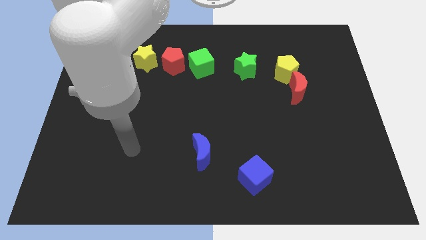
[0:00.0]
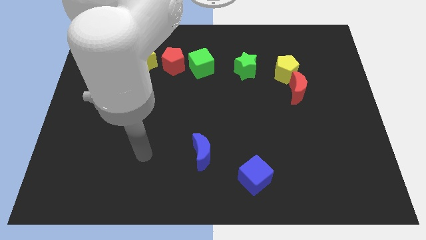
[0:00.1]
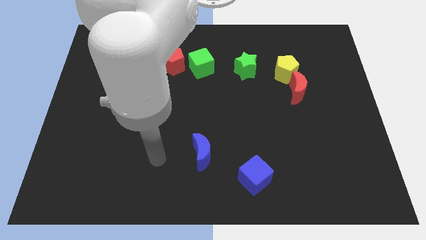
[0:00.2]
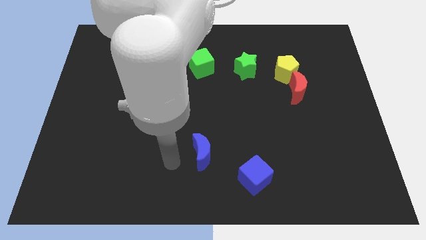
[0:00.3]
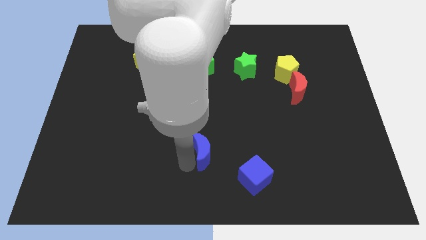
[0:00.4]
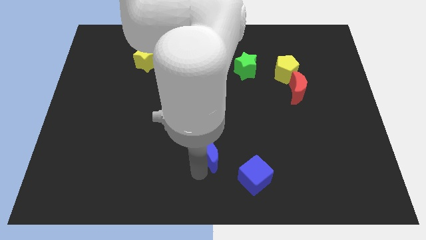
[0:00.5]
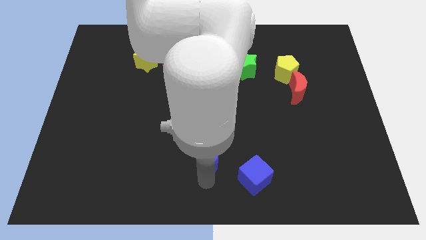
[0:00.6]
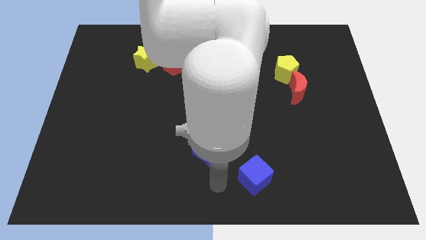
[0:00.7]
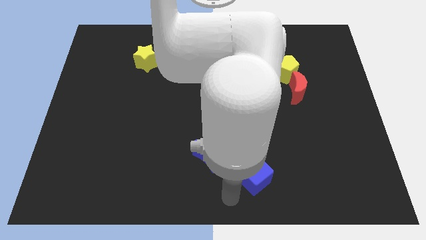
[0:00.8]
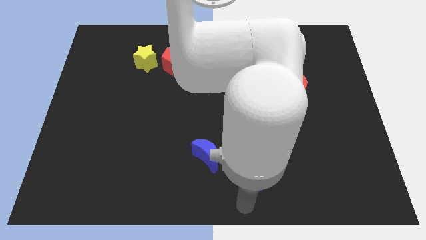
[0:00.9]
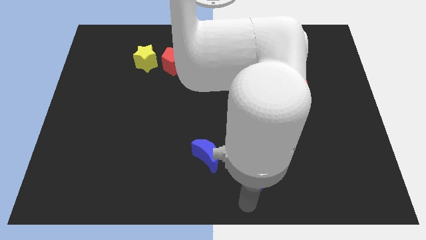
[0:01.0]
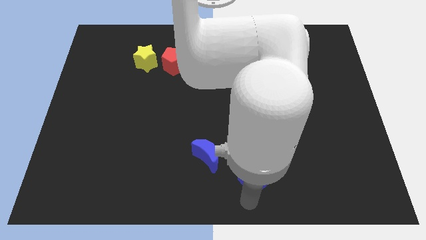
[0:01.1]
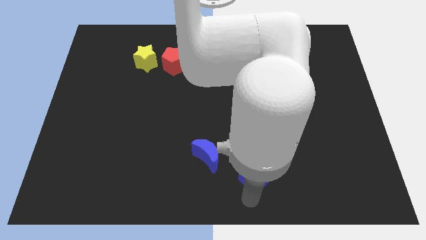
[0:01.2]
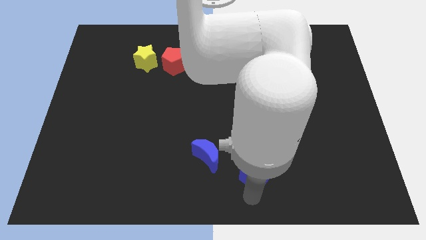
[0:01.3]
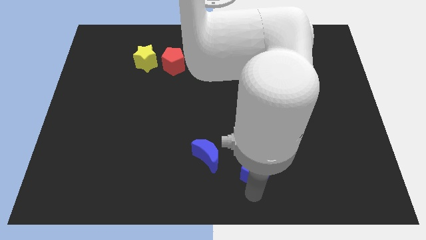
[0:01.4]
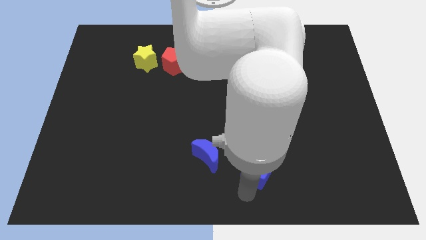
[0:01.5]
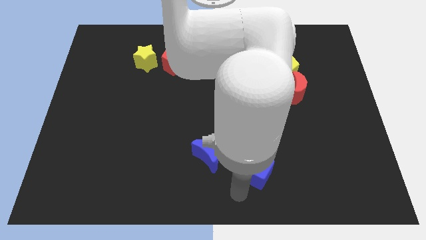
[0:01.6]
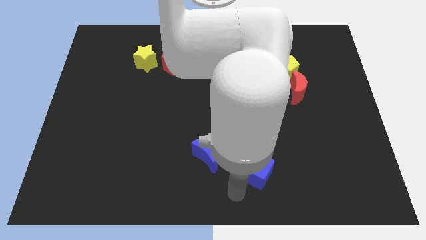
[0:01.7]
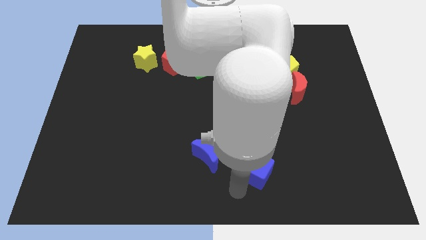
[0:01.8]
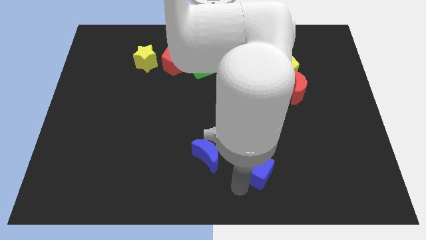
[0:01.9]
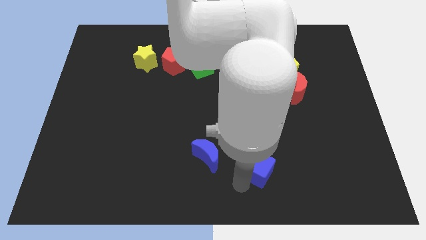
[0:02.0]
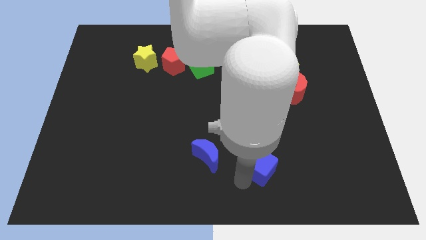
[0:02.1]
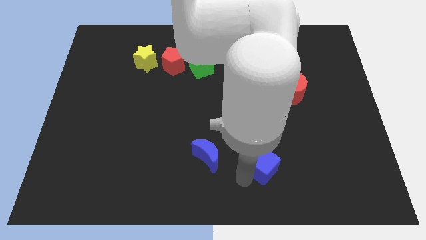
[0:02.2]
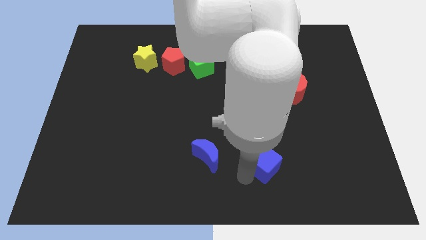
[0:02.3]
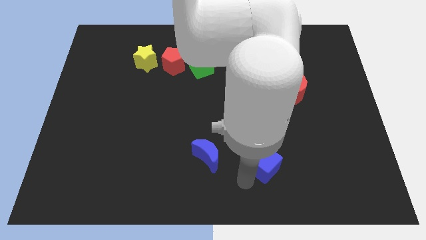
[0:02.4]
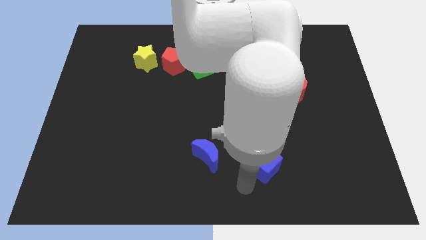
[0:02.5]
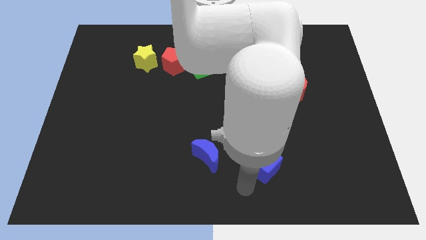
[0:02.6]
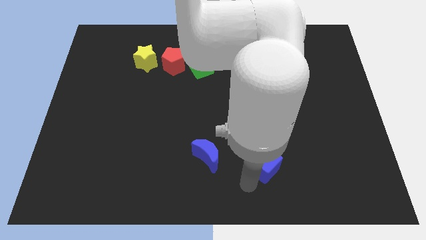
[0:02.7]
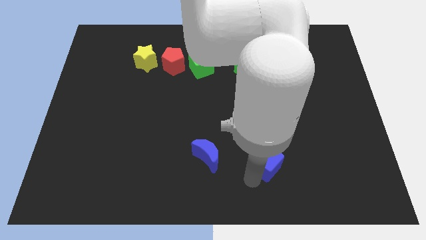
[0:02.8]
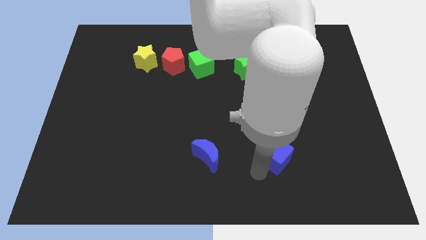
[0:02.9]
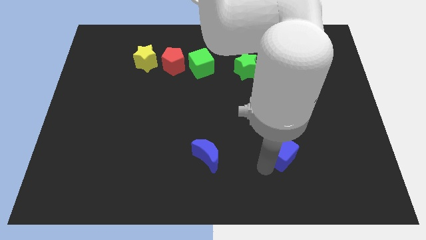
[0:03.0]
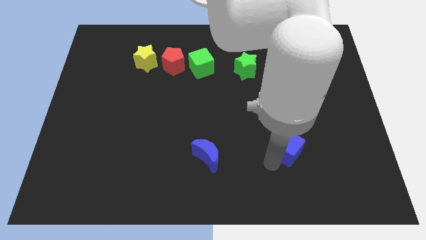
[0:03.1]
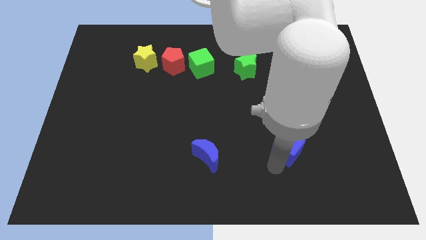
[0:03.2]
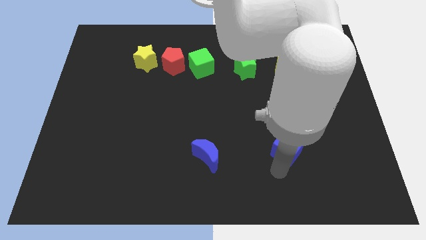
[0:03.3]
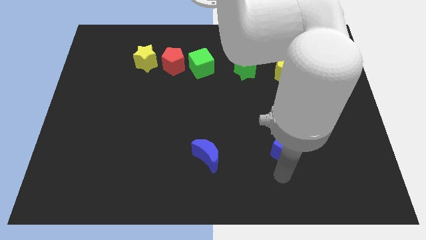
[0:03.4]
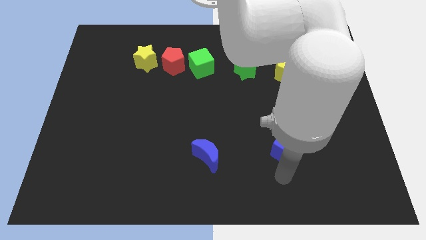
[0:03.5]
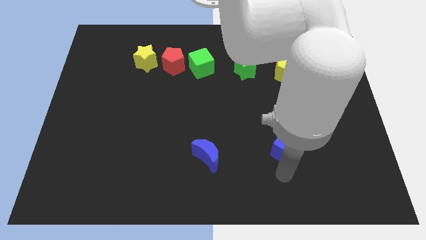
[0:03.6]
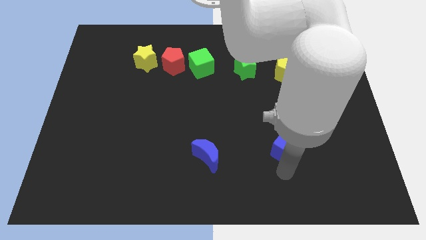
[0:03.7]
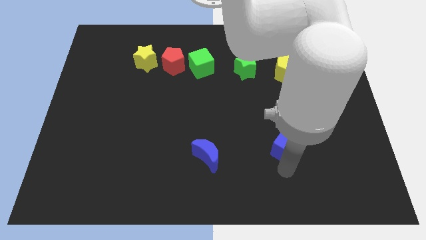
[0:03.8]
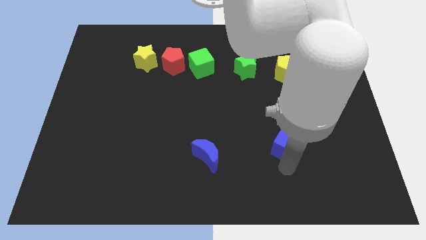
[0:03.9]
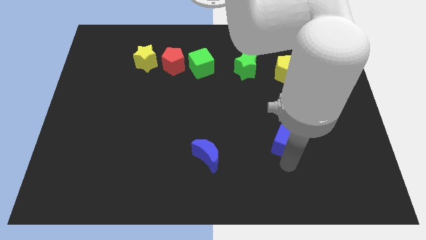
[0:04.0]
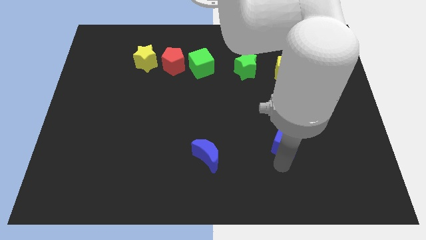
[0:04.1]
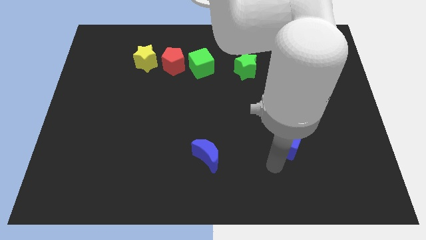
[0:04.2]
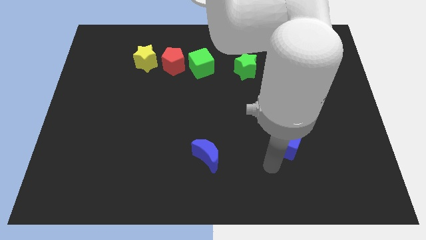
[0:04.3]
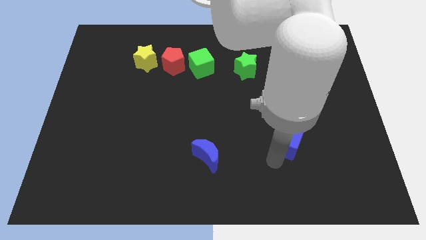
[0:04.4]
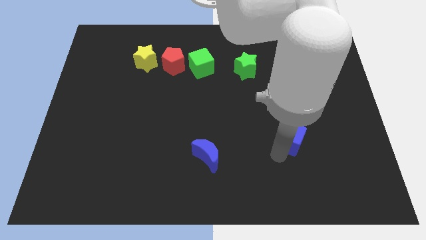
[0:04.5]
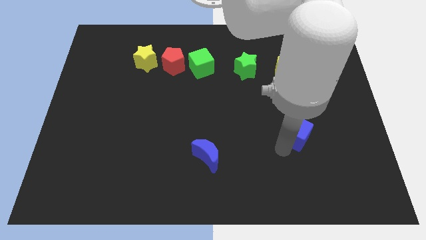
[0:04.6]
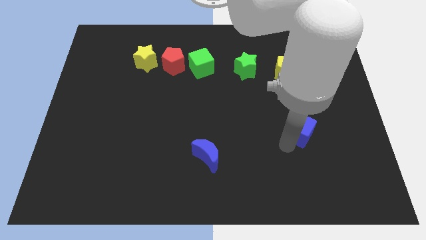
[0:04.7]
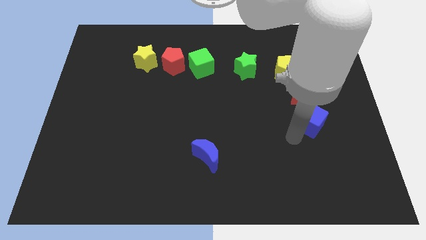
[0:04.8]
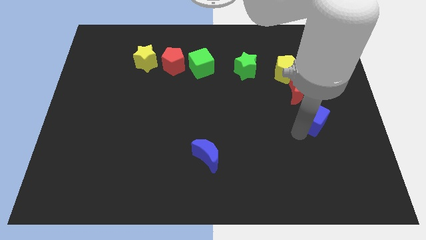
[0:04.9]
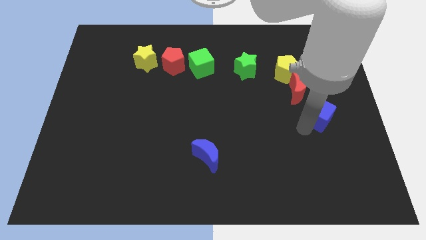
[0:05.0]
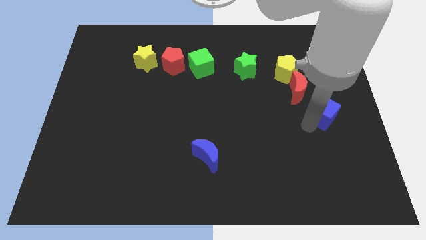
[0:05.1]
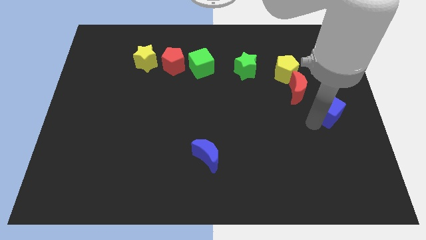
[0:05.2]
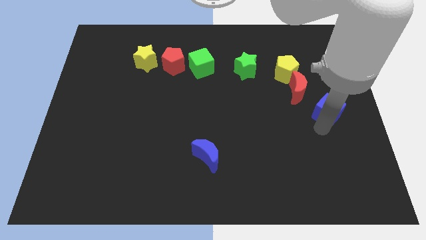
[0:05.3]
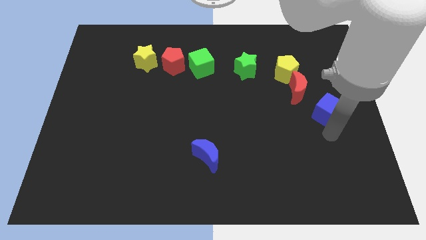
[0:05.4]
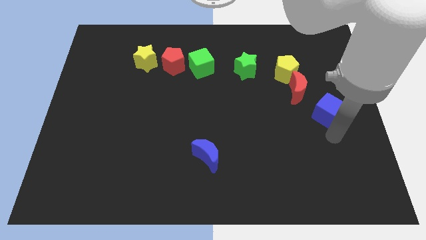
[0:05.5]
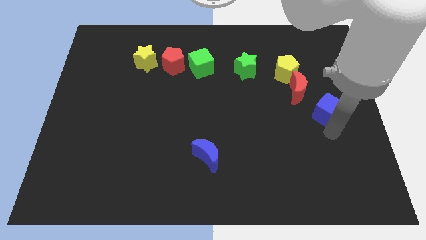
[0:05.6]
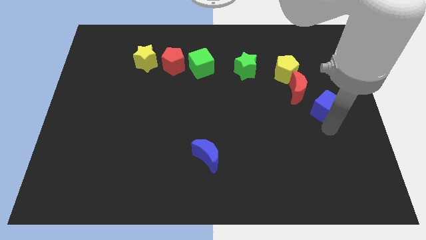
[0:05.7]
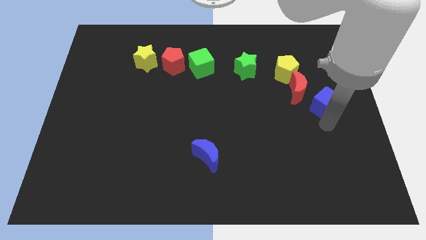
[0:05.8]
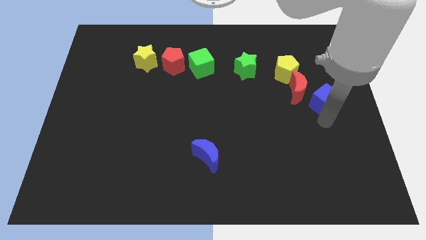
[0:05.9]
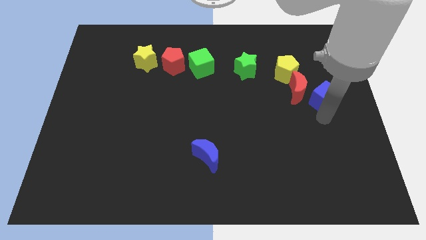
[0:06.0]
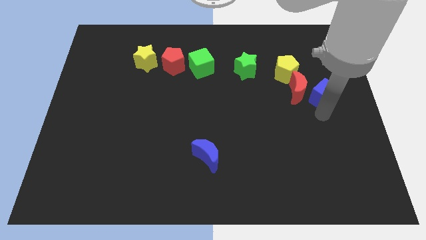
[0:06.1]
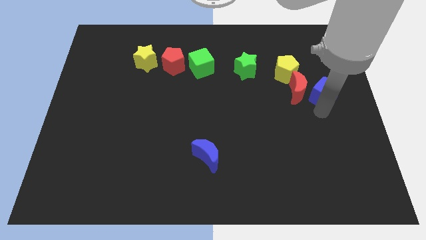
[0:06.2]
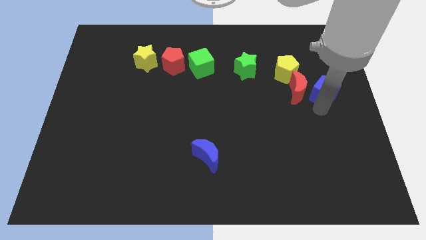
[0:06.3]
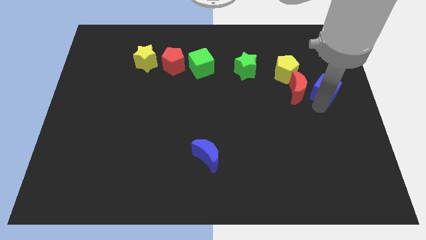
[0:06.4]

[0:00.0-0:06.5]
move the blue cube diagonally up and to the right of the red moon

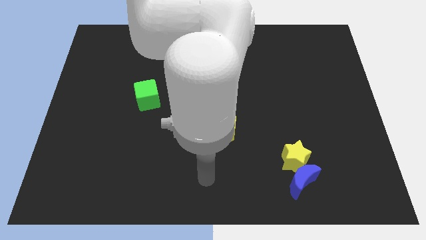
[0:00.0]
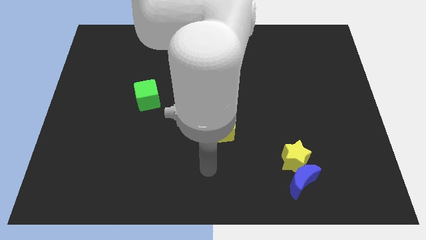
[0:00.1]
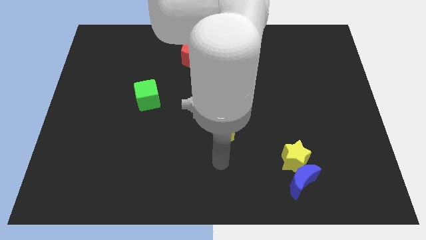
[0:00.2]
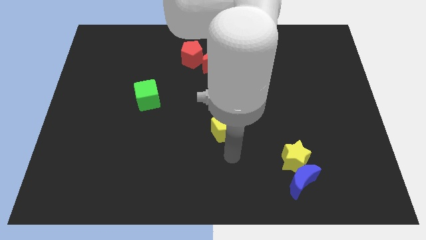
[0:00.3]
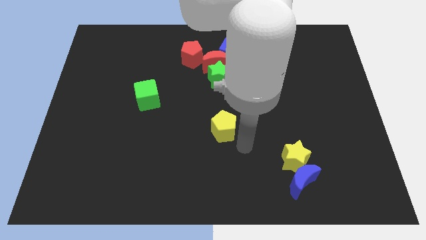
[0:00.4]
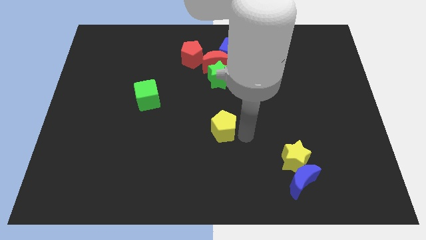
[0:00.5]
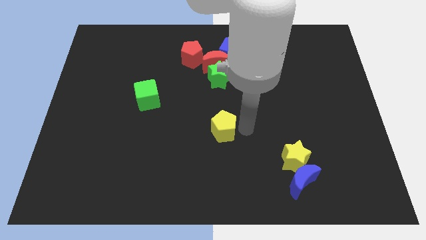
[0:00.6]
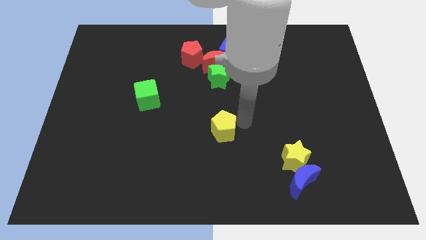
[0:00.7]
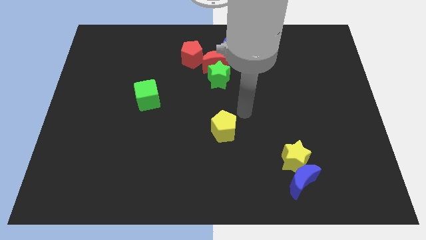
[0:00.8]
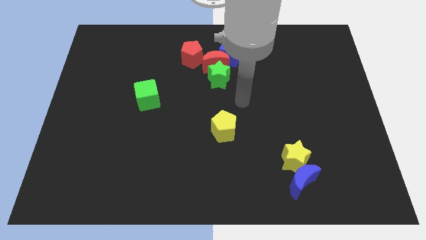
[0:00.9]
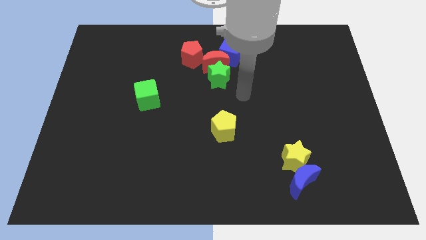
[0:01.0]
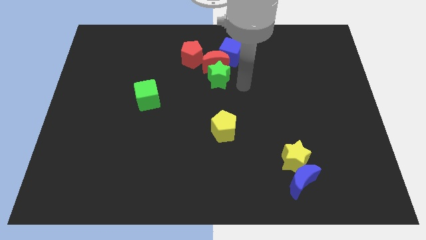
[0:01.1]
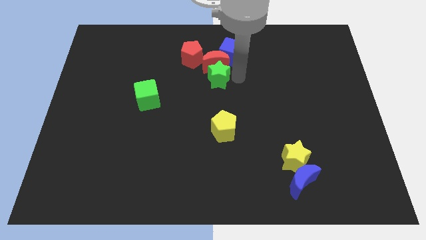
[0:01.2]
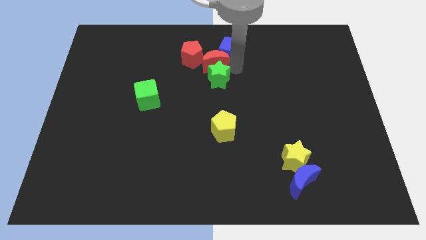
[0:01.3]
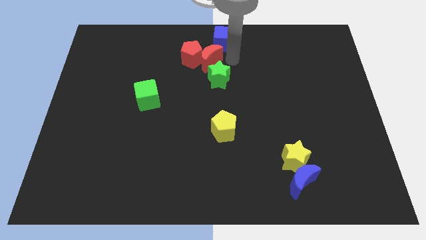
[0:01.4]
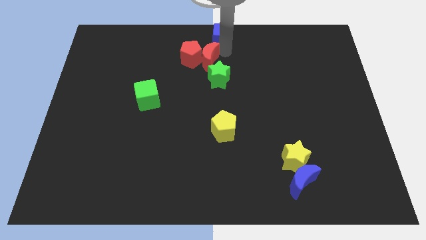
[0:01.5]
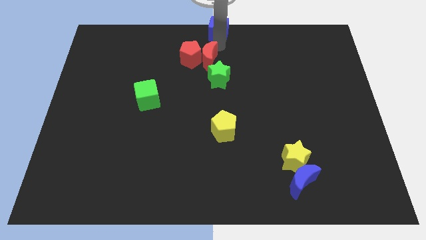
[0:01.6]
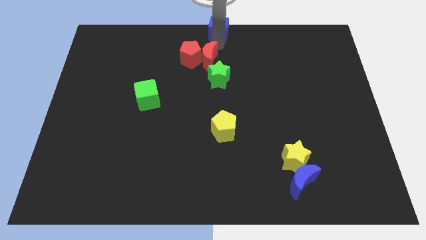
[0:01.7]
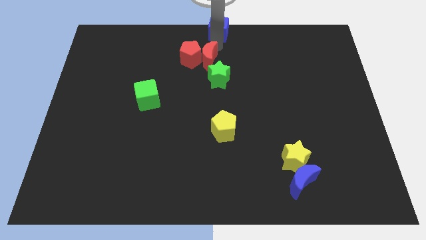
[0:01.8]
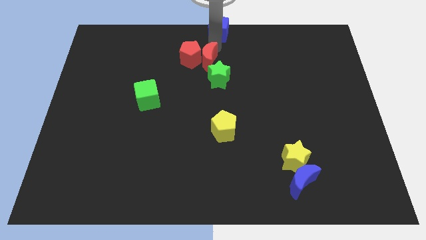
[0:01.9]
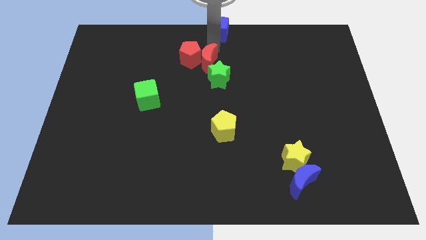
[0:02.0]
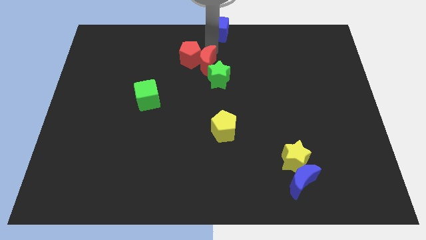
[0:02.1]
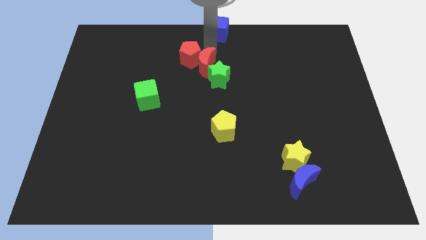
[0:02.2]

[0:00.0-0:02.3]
move the red moon to the bottom of the red pentagon
